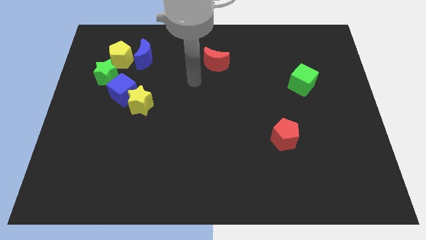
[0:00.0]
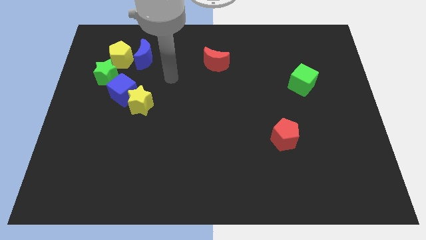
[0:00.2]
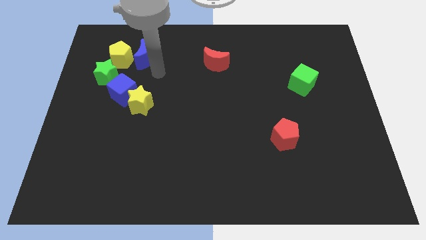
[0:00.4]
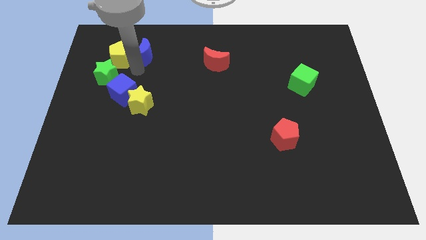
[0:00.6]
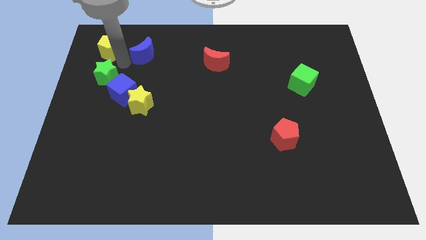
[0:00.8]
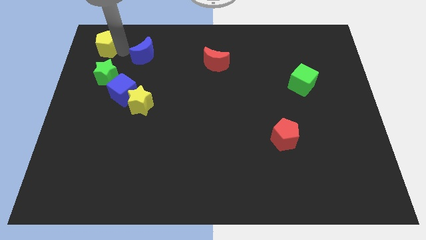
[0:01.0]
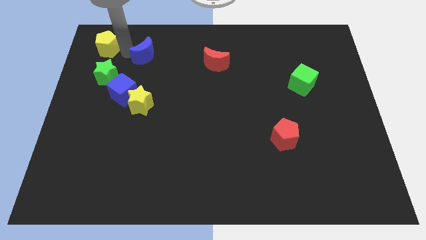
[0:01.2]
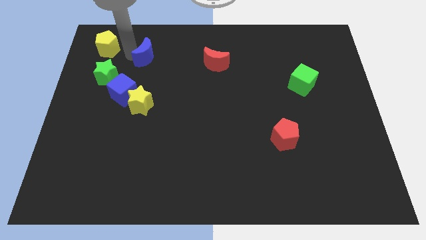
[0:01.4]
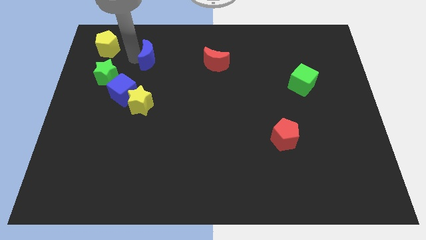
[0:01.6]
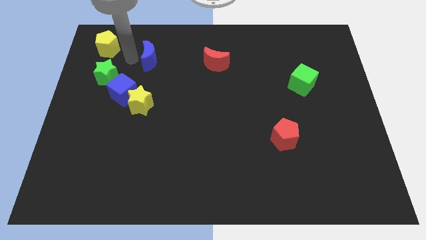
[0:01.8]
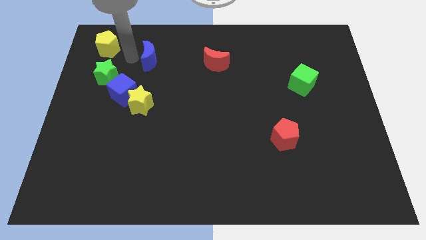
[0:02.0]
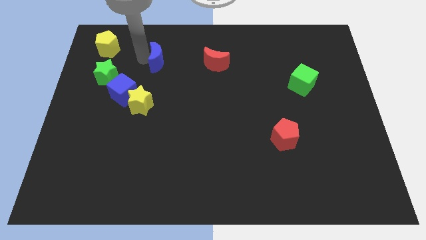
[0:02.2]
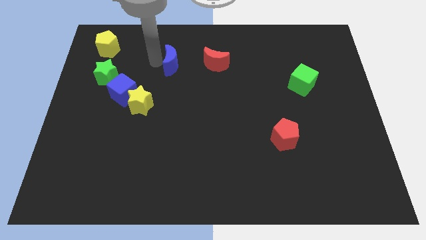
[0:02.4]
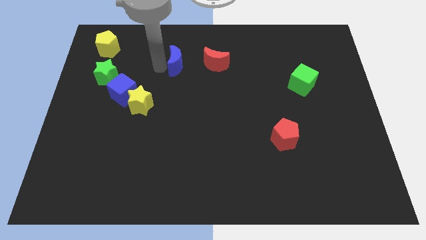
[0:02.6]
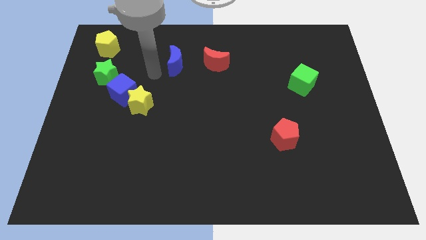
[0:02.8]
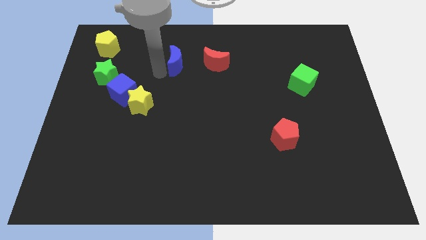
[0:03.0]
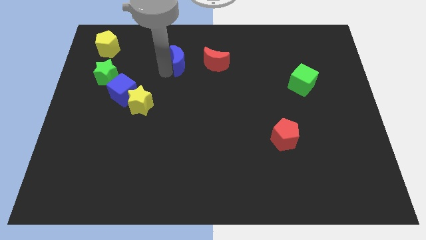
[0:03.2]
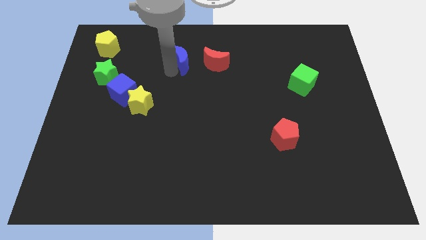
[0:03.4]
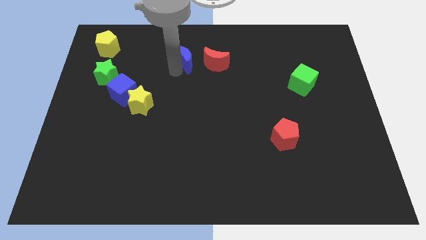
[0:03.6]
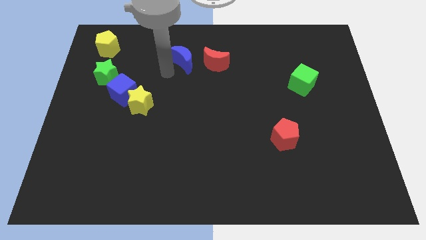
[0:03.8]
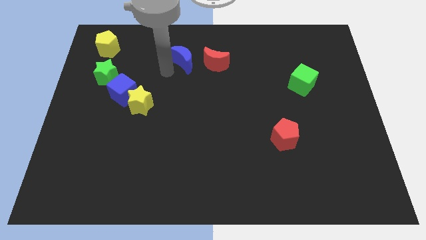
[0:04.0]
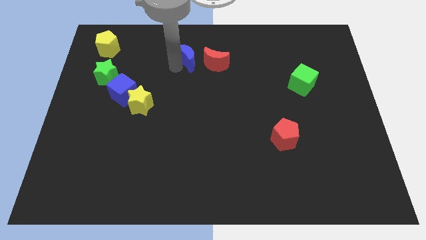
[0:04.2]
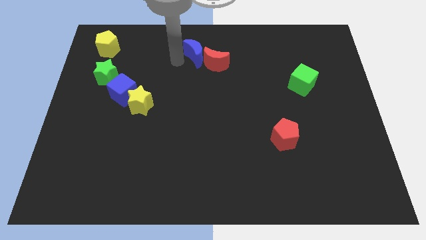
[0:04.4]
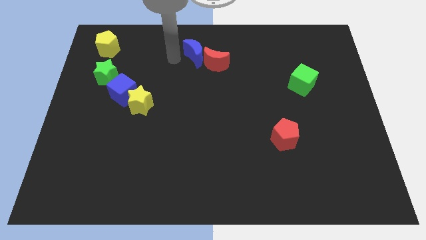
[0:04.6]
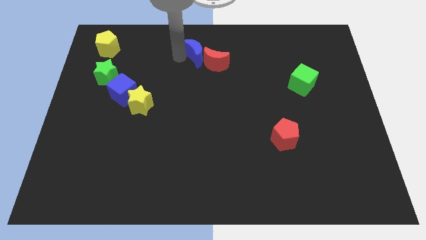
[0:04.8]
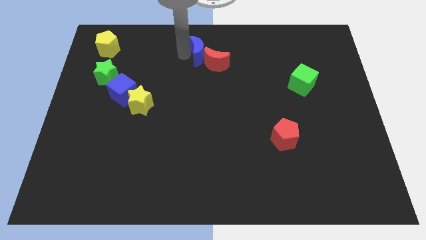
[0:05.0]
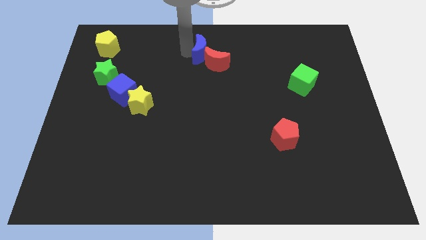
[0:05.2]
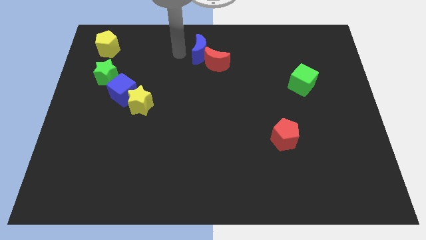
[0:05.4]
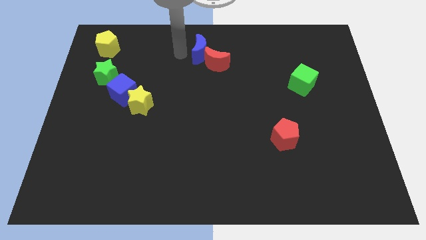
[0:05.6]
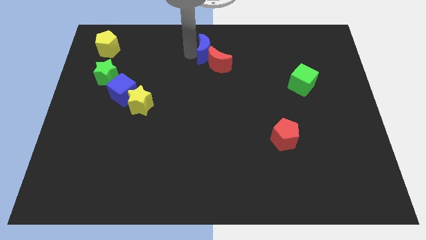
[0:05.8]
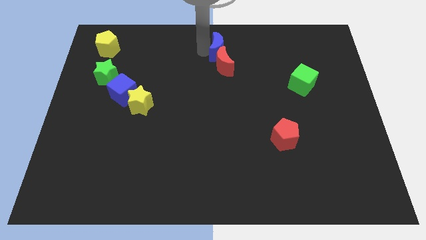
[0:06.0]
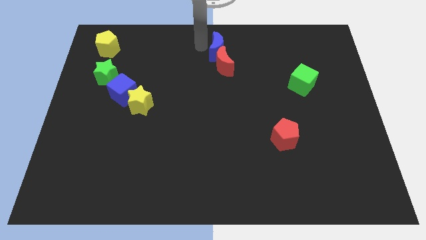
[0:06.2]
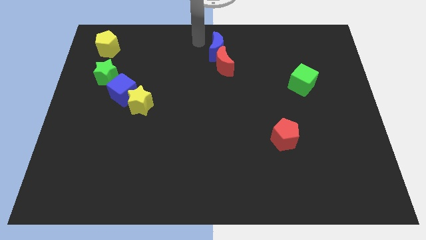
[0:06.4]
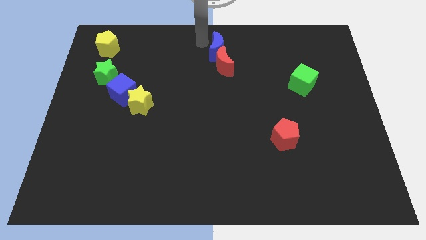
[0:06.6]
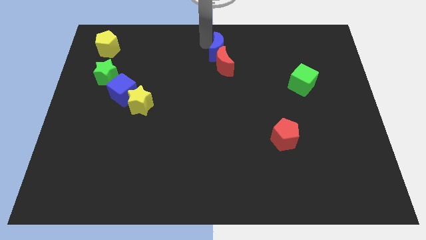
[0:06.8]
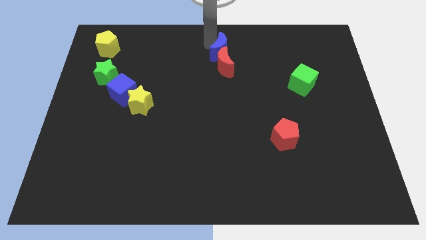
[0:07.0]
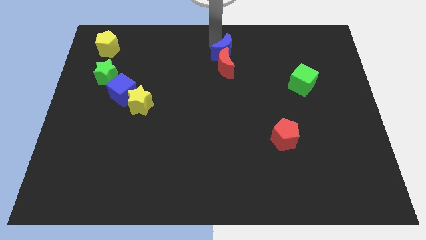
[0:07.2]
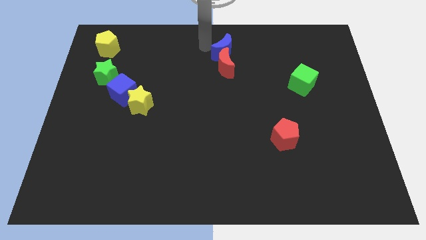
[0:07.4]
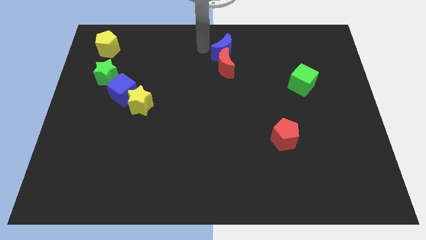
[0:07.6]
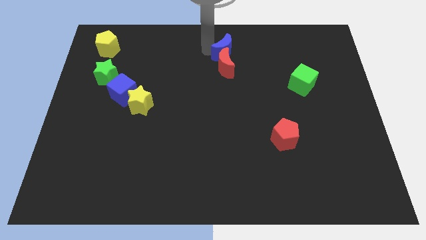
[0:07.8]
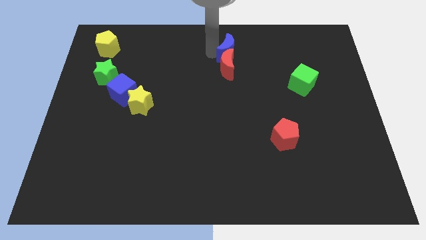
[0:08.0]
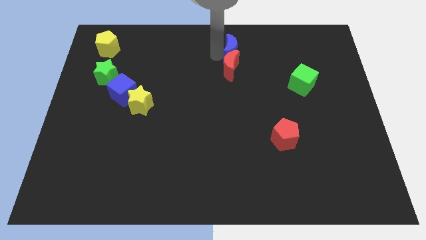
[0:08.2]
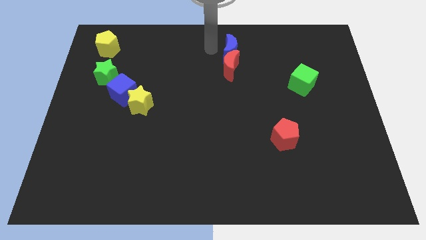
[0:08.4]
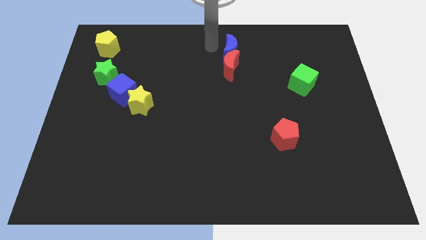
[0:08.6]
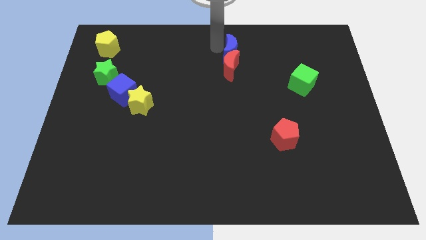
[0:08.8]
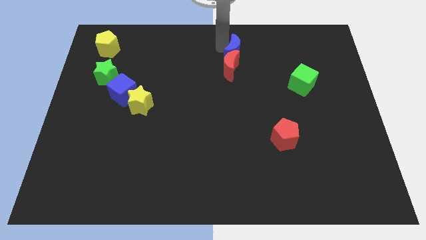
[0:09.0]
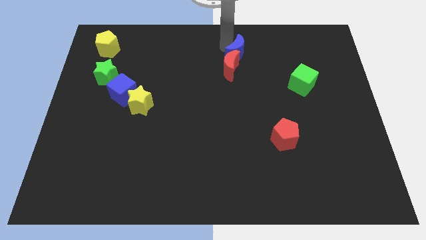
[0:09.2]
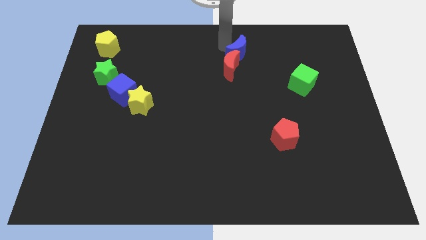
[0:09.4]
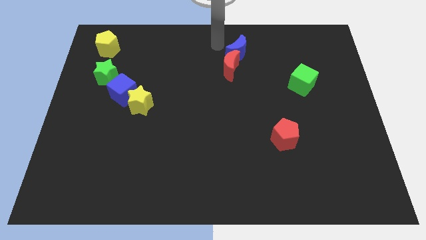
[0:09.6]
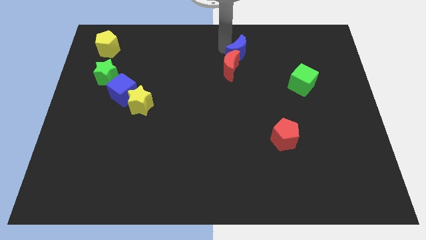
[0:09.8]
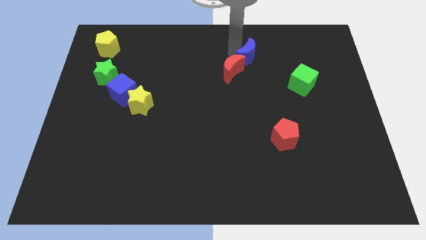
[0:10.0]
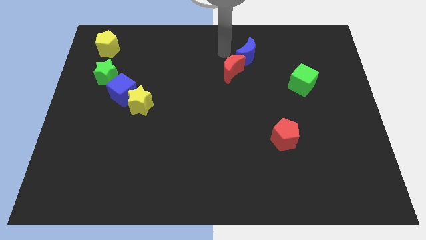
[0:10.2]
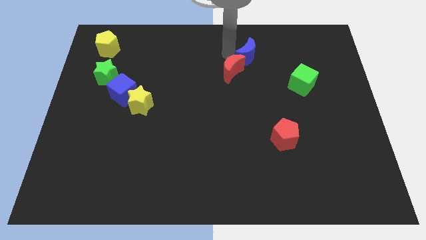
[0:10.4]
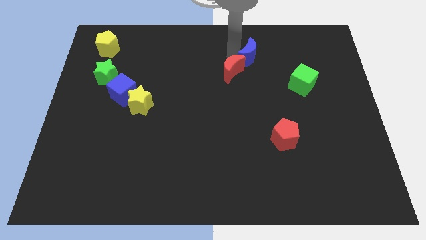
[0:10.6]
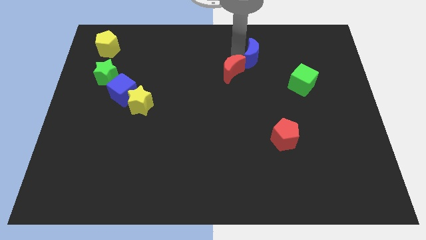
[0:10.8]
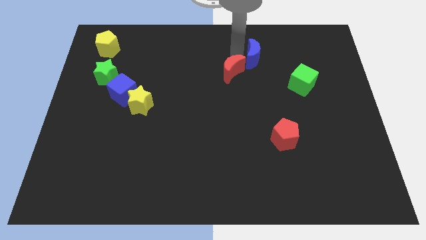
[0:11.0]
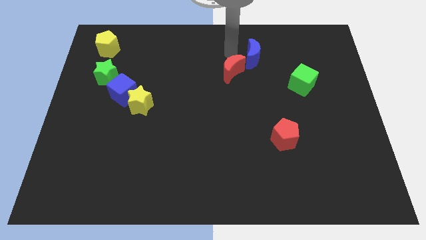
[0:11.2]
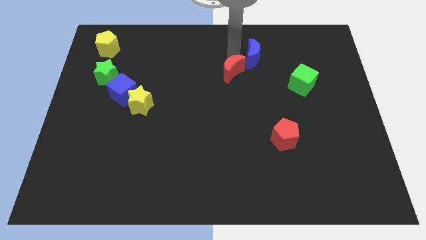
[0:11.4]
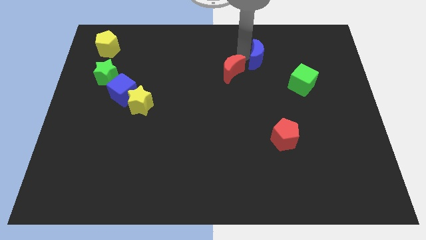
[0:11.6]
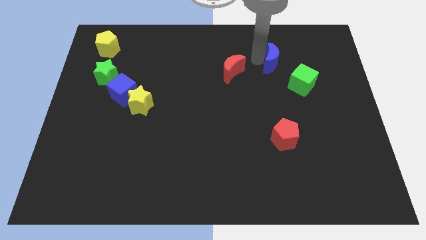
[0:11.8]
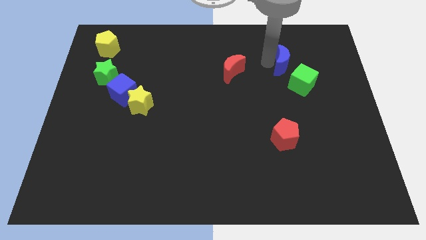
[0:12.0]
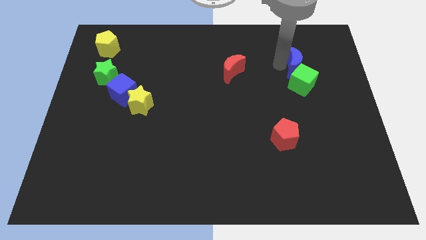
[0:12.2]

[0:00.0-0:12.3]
slide the blue moon to the top right of the green cube

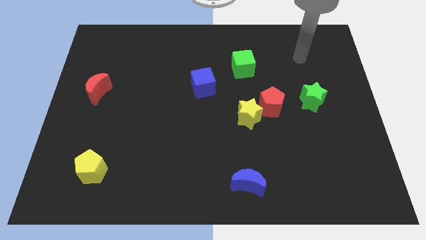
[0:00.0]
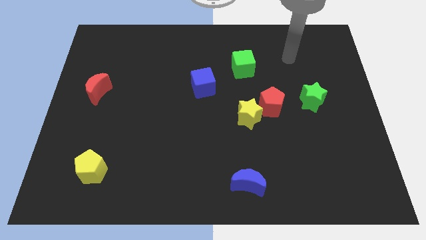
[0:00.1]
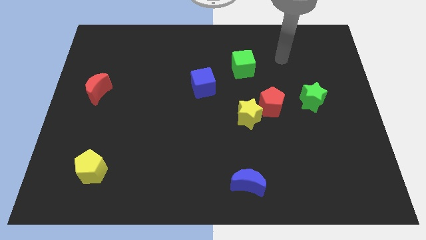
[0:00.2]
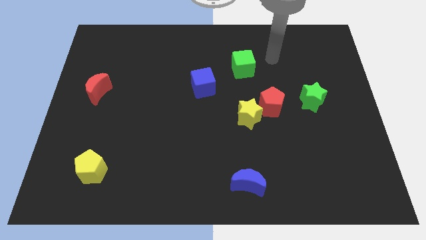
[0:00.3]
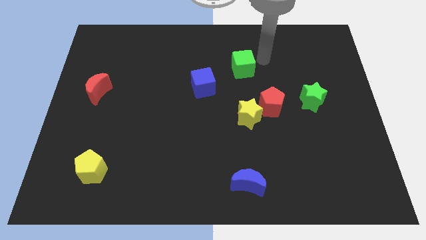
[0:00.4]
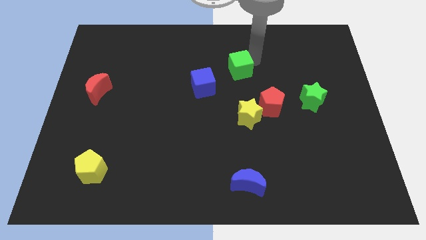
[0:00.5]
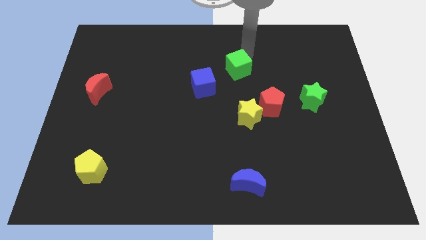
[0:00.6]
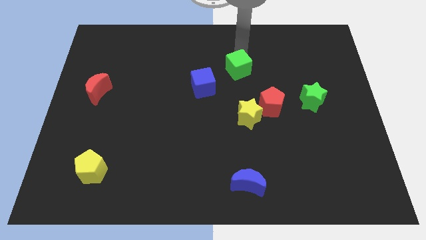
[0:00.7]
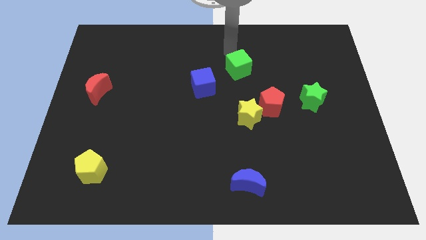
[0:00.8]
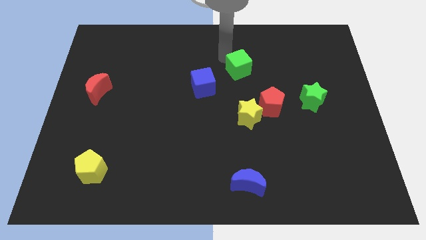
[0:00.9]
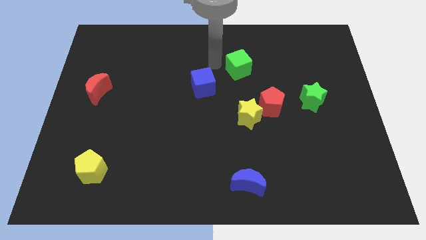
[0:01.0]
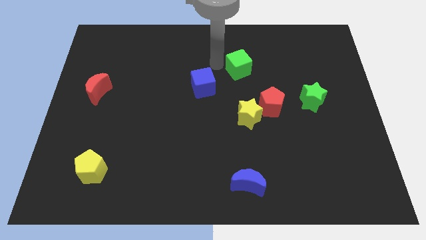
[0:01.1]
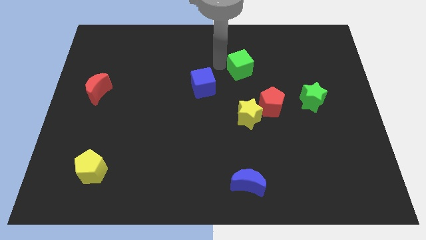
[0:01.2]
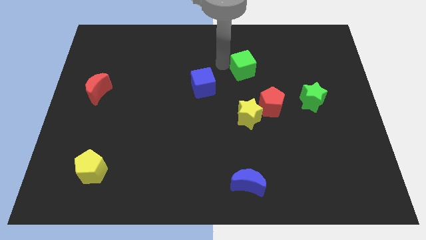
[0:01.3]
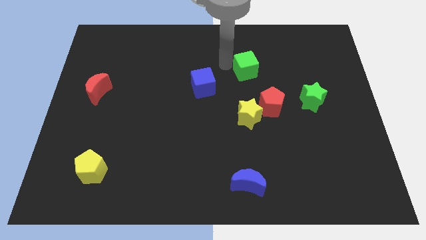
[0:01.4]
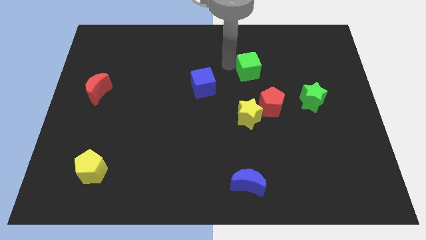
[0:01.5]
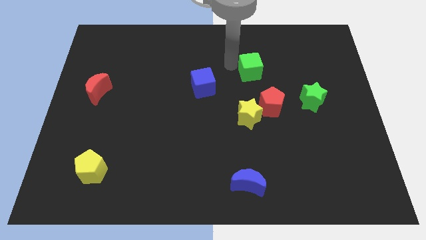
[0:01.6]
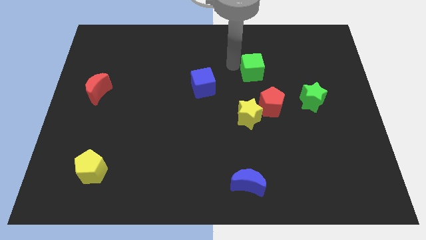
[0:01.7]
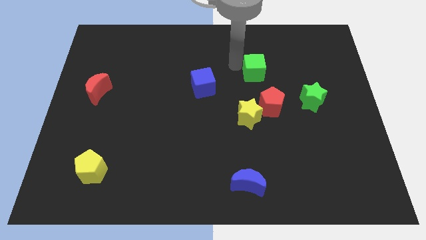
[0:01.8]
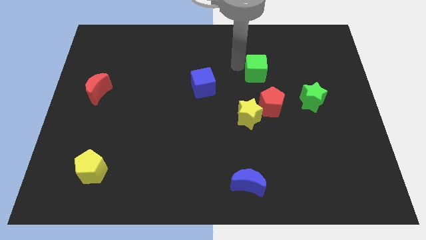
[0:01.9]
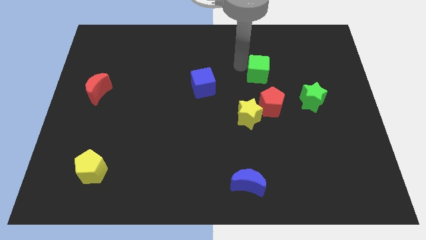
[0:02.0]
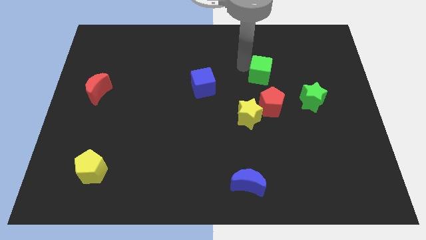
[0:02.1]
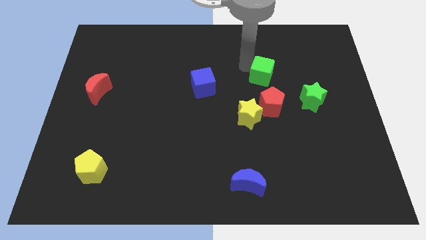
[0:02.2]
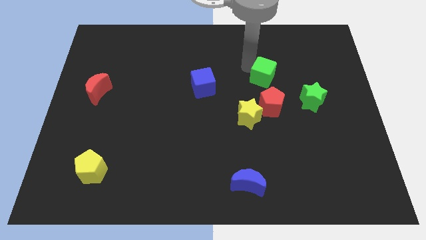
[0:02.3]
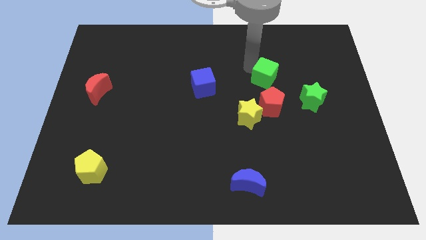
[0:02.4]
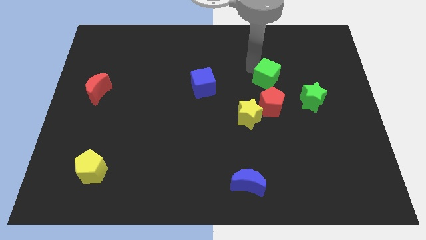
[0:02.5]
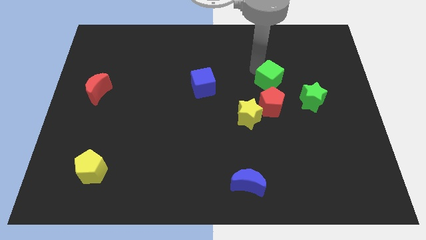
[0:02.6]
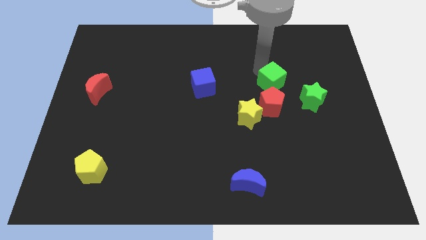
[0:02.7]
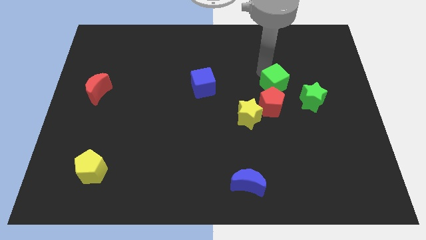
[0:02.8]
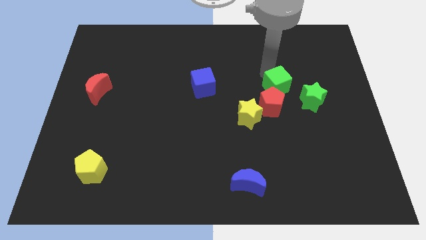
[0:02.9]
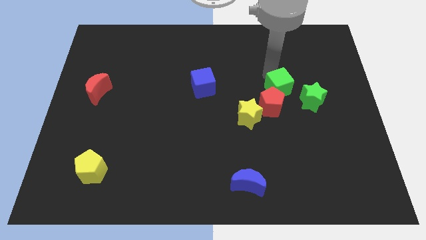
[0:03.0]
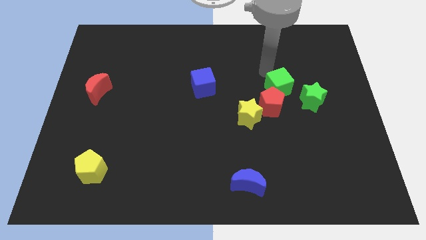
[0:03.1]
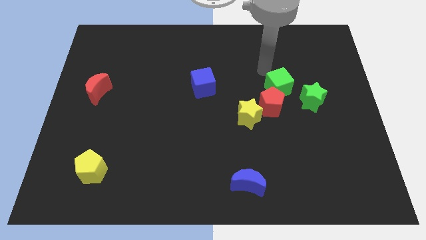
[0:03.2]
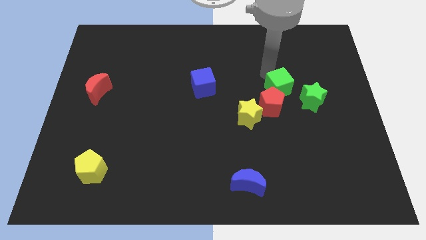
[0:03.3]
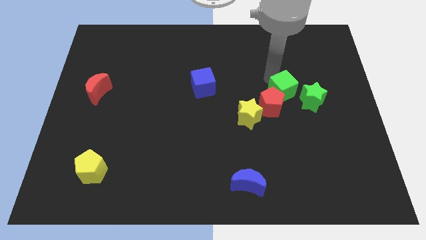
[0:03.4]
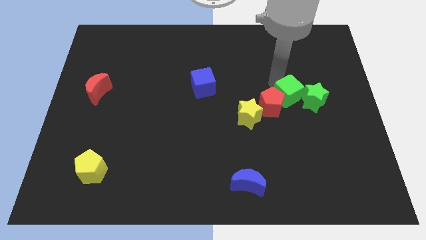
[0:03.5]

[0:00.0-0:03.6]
put the green cube right of the red pentagon
